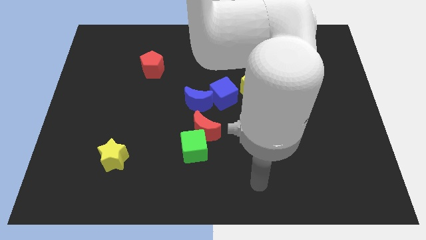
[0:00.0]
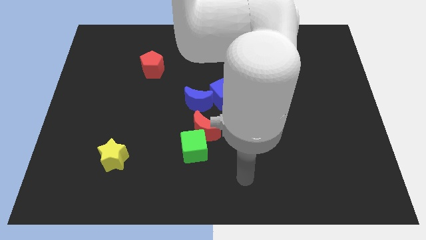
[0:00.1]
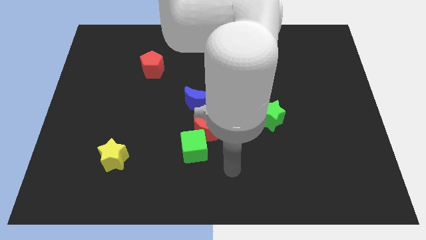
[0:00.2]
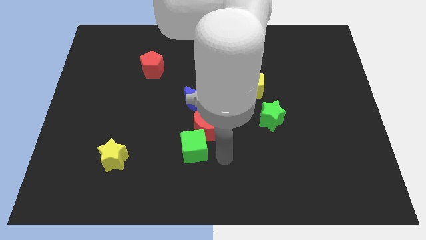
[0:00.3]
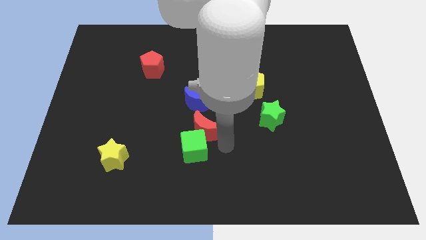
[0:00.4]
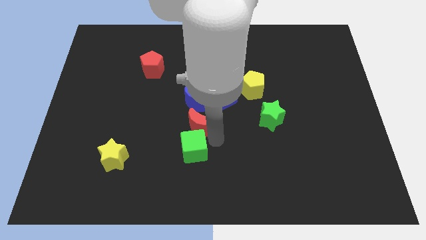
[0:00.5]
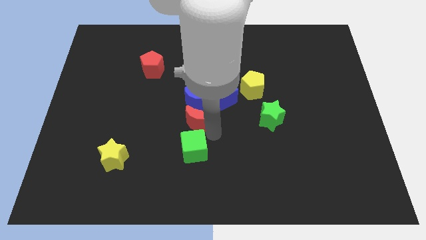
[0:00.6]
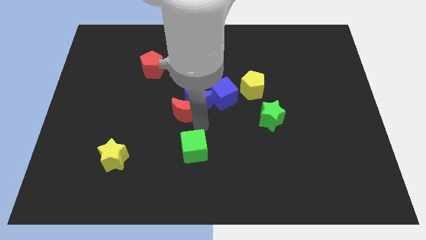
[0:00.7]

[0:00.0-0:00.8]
separate the green cube from the red moon

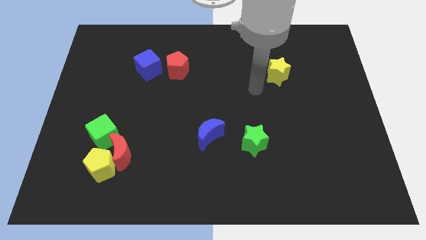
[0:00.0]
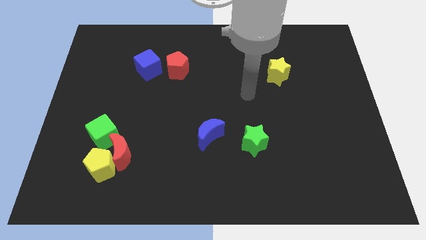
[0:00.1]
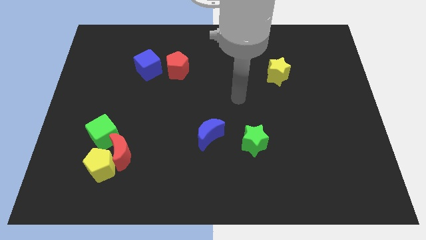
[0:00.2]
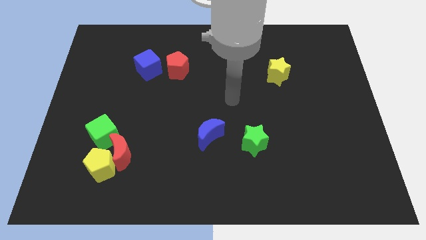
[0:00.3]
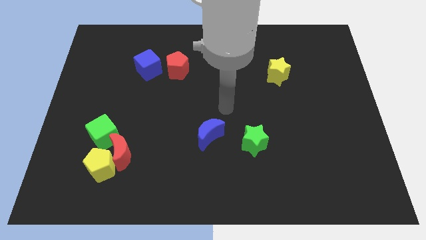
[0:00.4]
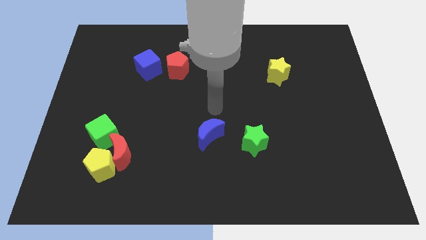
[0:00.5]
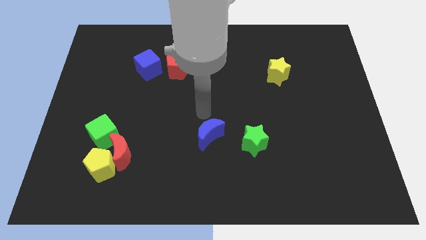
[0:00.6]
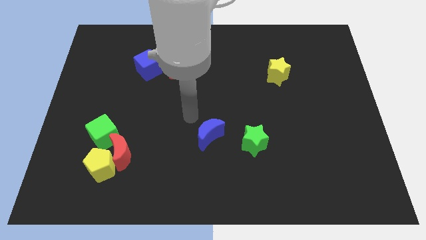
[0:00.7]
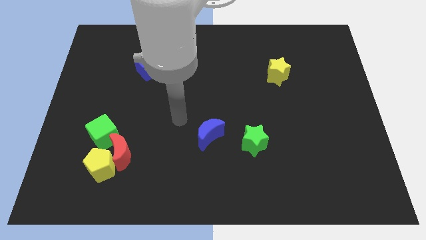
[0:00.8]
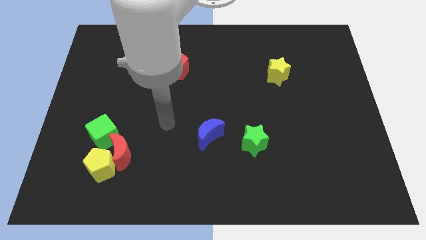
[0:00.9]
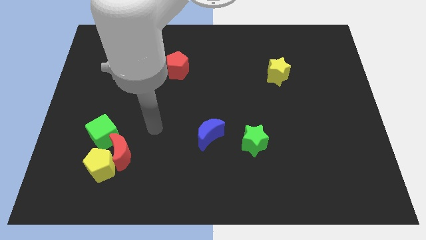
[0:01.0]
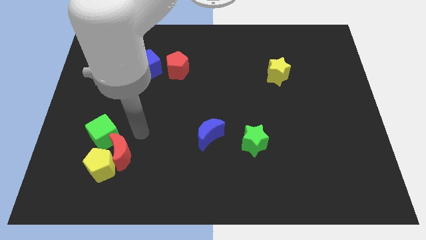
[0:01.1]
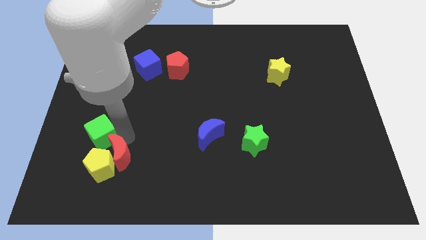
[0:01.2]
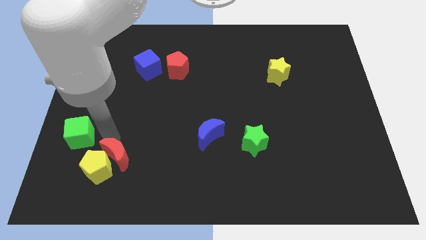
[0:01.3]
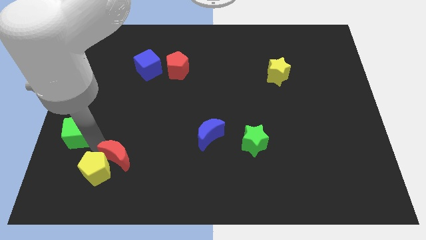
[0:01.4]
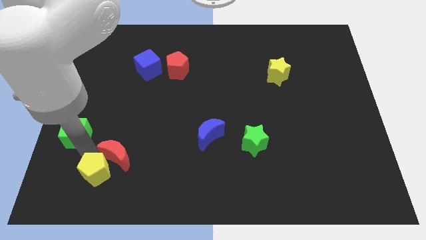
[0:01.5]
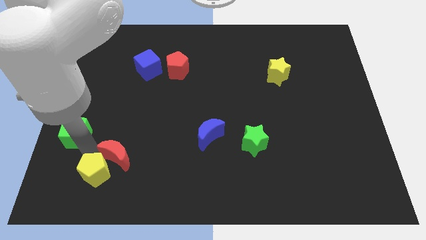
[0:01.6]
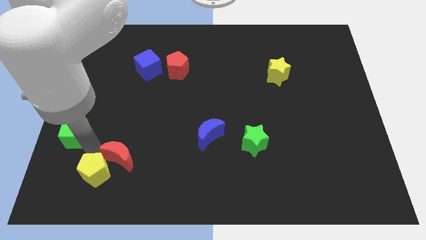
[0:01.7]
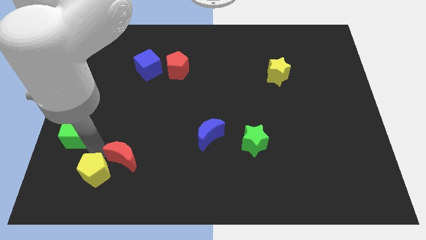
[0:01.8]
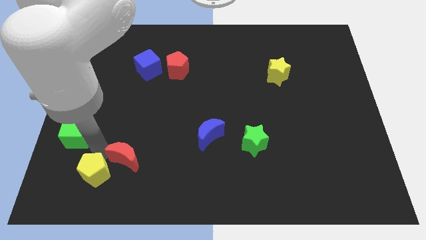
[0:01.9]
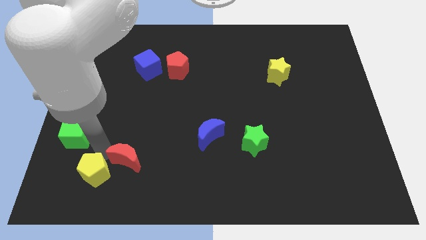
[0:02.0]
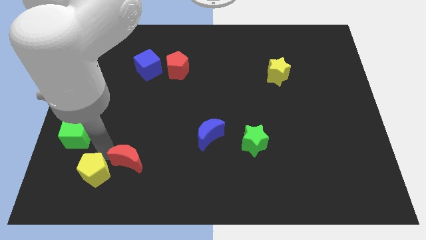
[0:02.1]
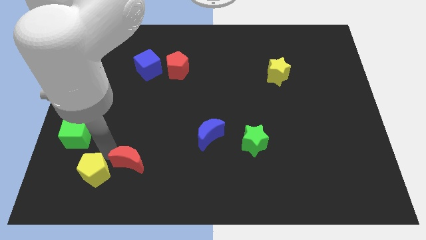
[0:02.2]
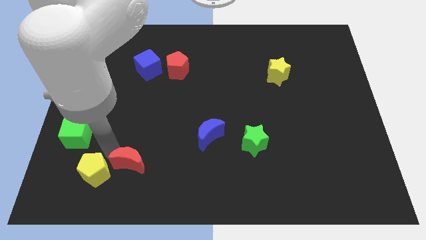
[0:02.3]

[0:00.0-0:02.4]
pull the red moon apart from the yellow pentagon and green cube

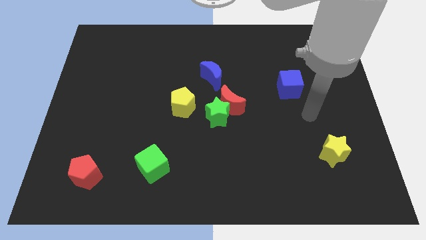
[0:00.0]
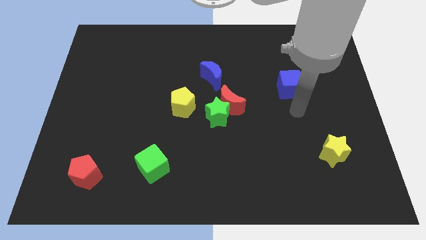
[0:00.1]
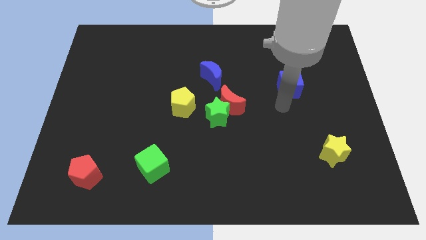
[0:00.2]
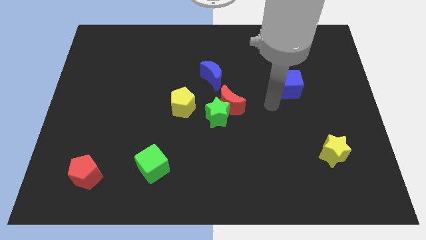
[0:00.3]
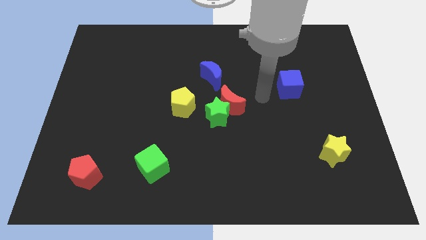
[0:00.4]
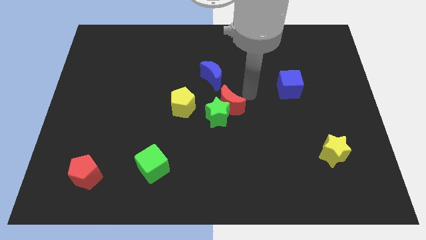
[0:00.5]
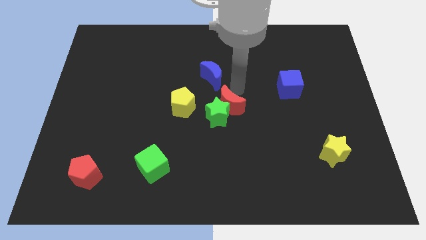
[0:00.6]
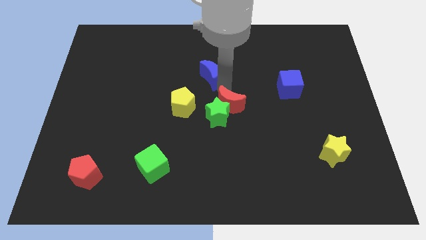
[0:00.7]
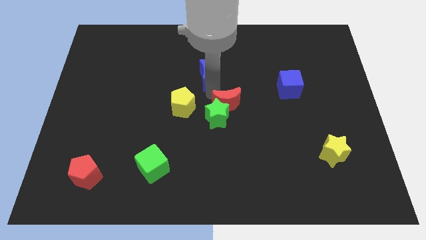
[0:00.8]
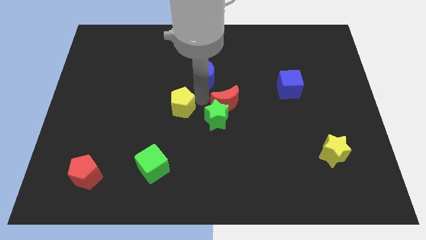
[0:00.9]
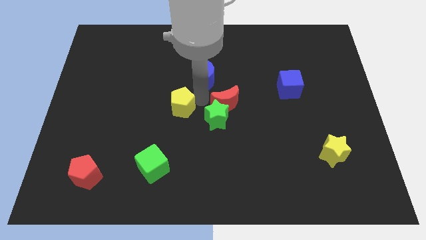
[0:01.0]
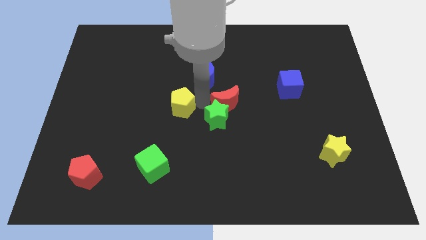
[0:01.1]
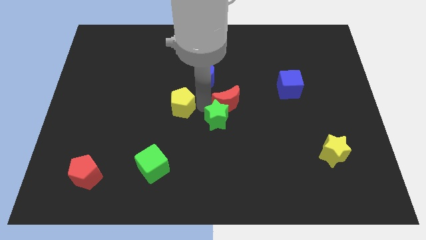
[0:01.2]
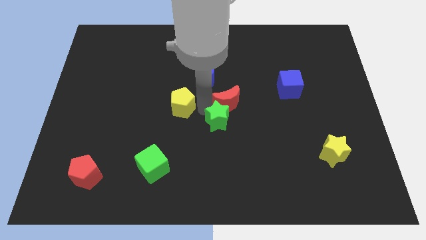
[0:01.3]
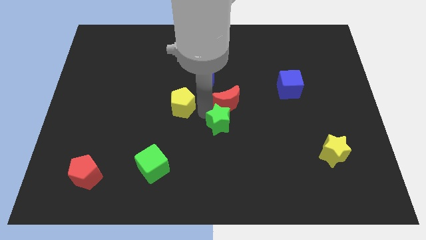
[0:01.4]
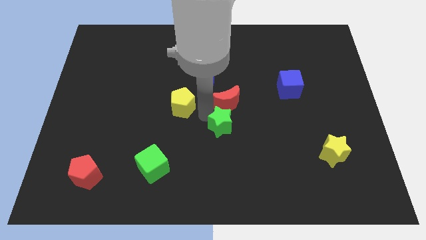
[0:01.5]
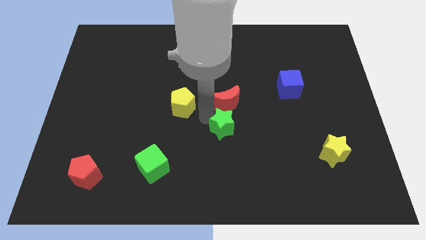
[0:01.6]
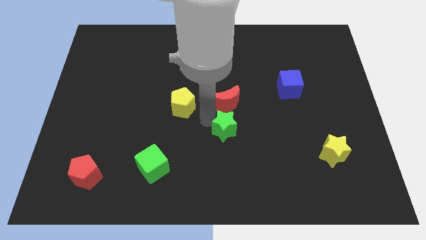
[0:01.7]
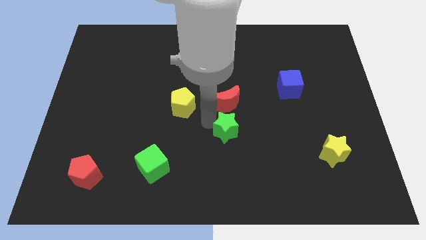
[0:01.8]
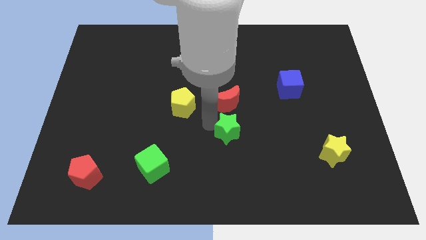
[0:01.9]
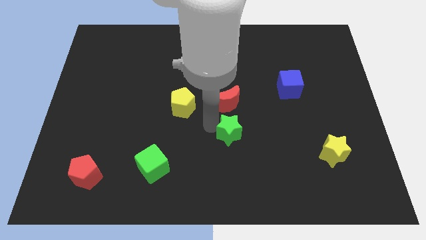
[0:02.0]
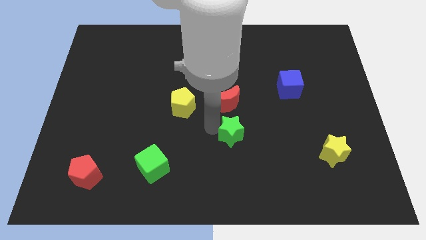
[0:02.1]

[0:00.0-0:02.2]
separate the green star from the red moon and yellow pentagon

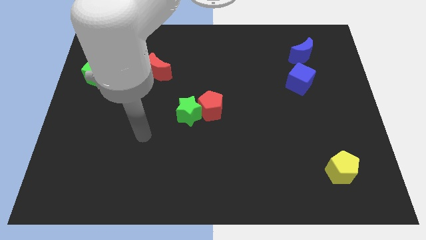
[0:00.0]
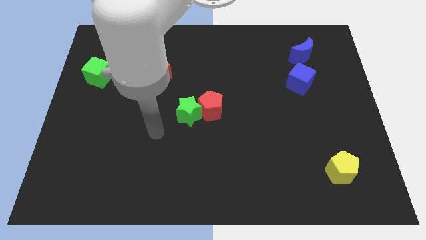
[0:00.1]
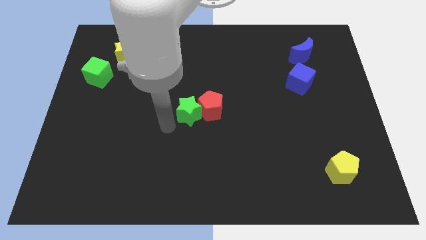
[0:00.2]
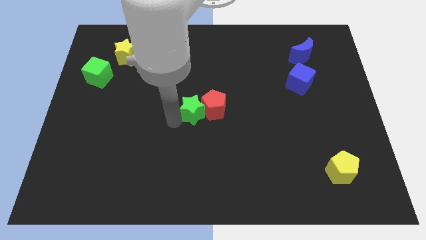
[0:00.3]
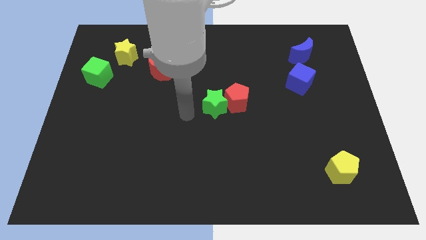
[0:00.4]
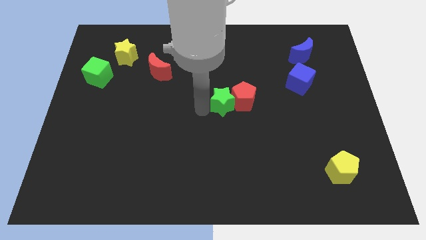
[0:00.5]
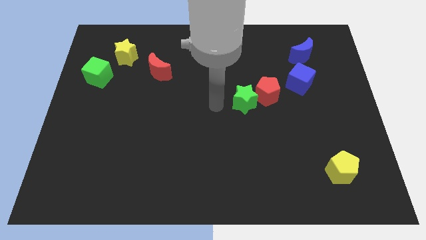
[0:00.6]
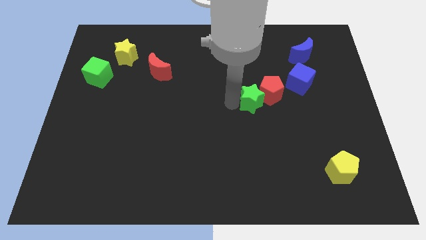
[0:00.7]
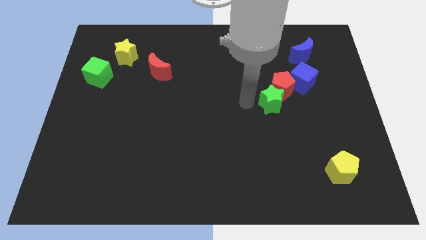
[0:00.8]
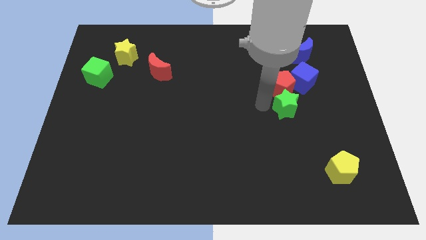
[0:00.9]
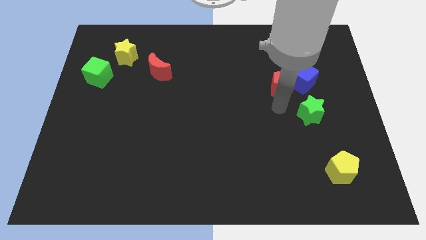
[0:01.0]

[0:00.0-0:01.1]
move the red pentagon away from the green star

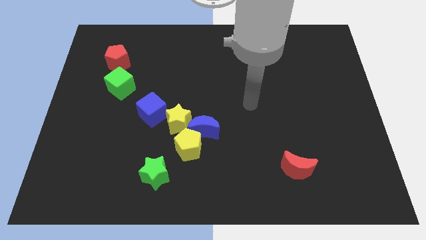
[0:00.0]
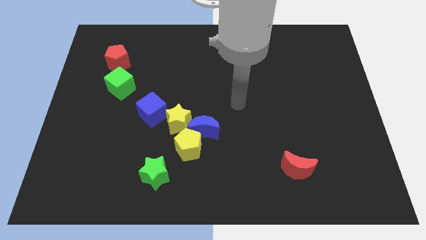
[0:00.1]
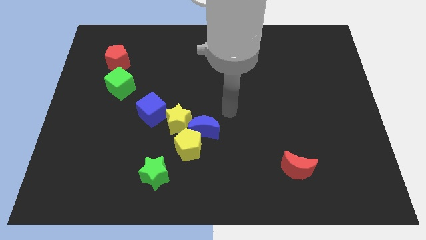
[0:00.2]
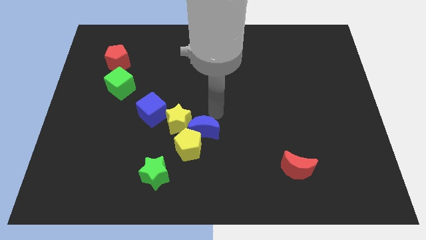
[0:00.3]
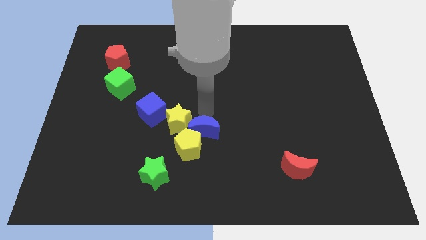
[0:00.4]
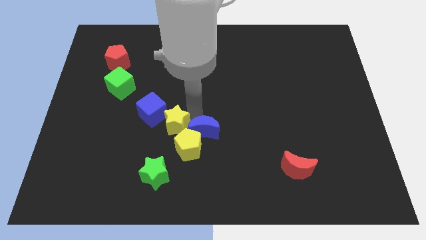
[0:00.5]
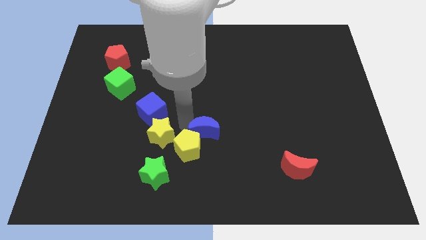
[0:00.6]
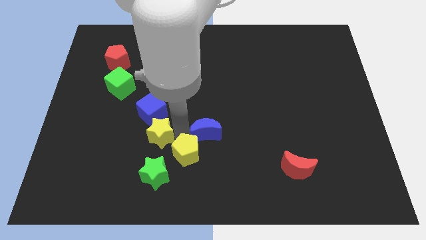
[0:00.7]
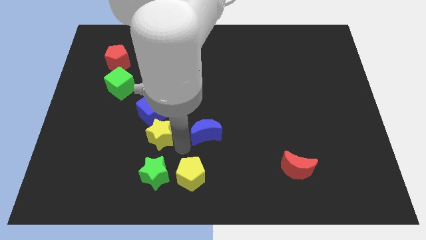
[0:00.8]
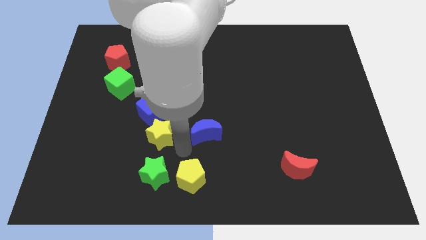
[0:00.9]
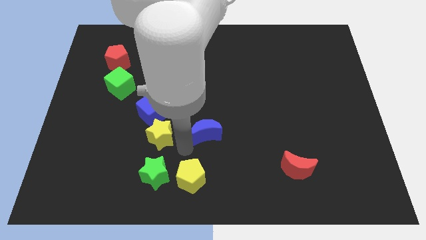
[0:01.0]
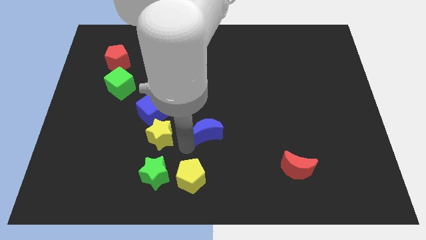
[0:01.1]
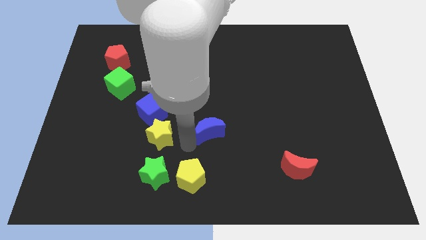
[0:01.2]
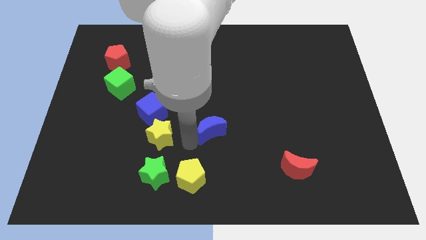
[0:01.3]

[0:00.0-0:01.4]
pull the blue moon apart from the yellow pentagon and yellow star

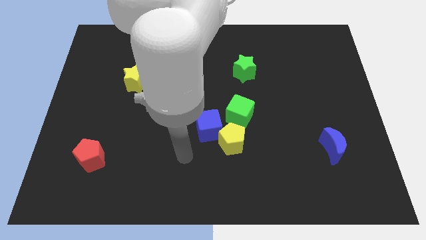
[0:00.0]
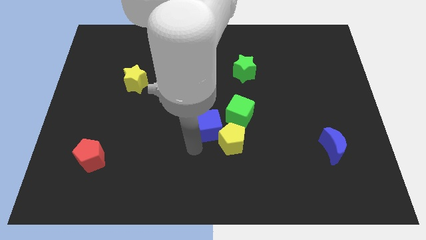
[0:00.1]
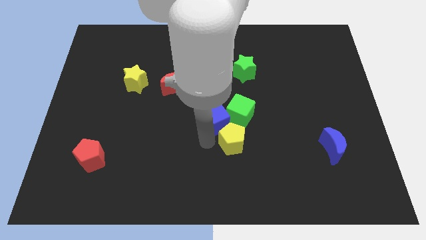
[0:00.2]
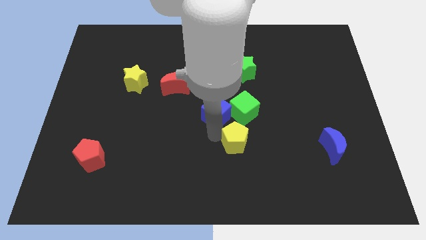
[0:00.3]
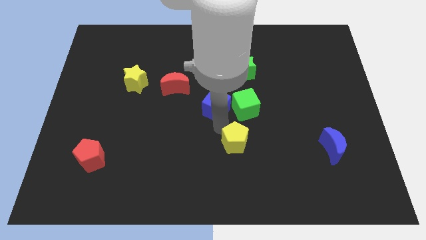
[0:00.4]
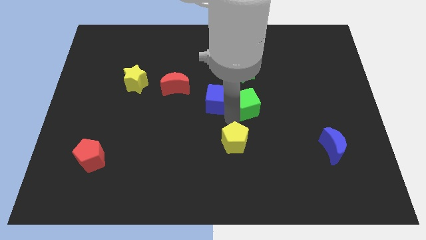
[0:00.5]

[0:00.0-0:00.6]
separate the yellow pentagon from the blue cube and green cube

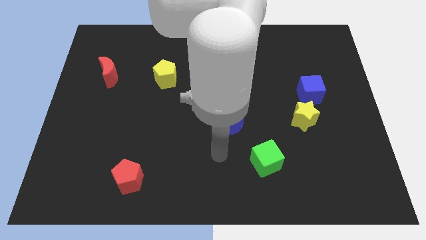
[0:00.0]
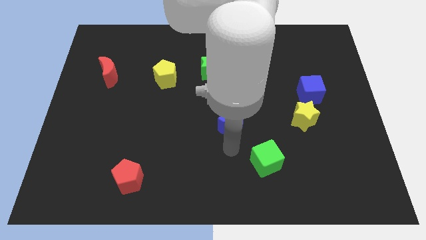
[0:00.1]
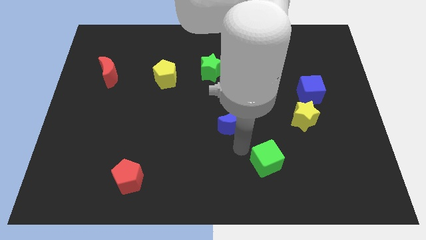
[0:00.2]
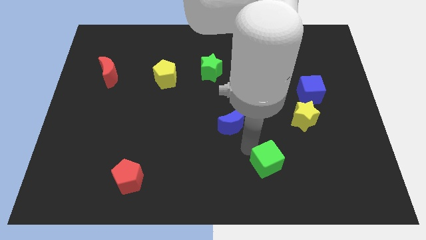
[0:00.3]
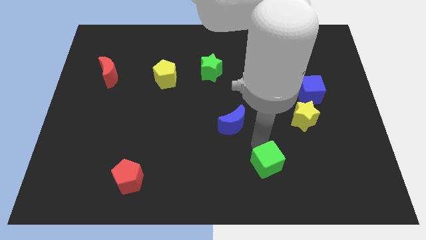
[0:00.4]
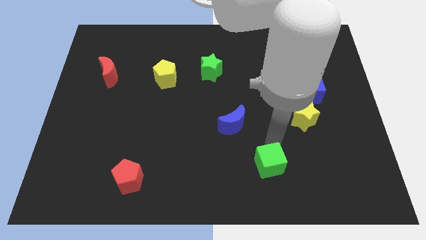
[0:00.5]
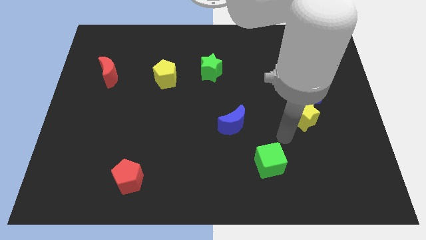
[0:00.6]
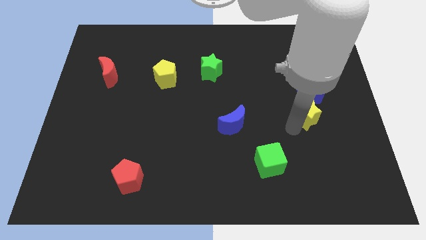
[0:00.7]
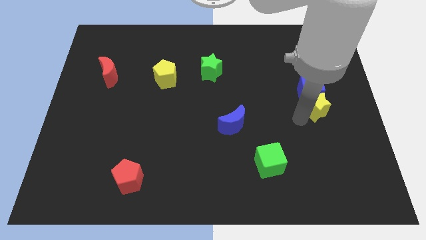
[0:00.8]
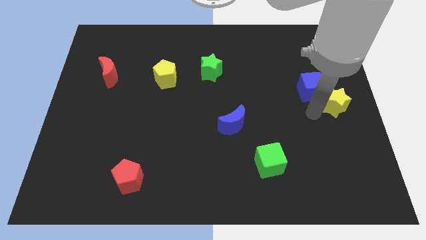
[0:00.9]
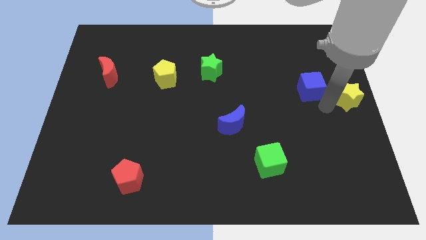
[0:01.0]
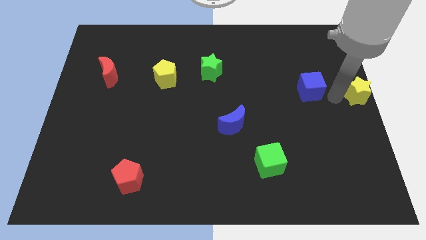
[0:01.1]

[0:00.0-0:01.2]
separate the blue cube from the yellow star
